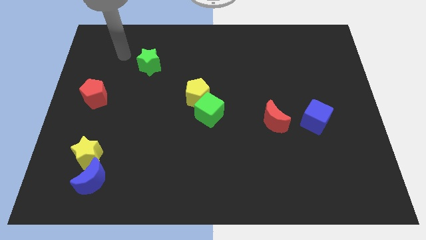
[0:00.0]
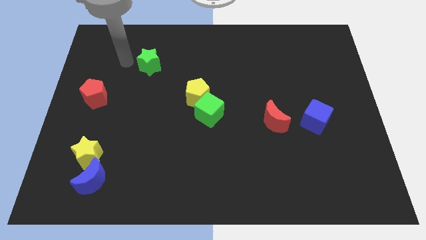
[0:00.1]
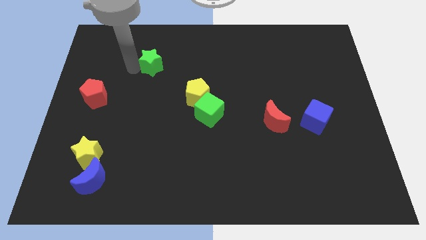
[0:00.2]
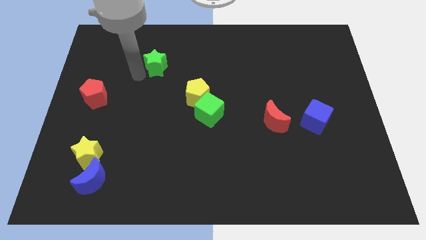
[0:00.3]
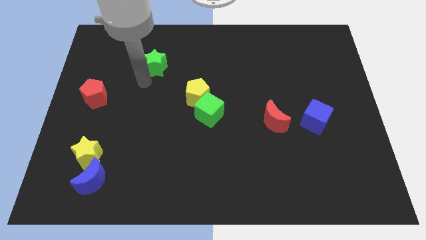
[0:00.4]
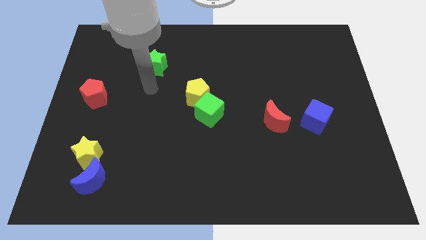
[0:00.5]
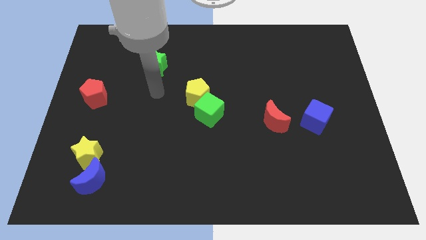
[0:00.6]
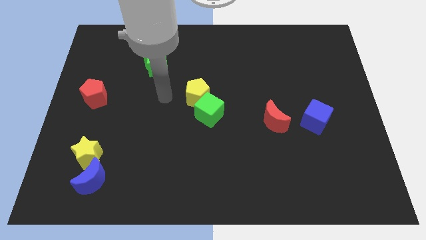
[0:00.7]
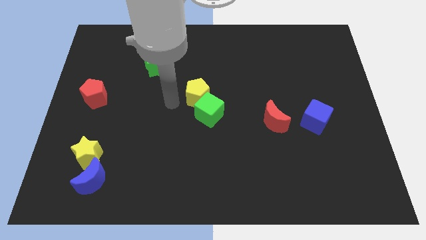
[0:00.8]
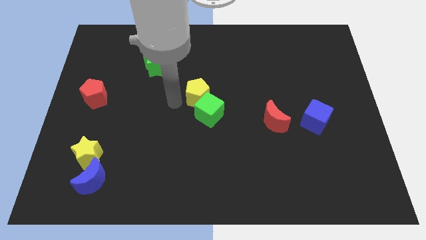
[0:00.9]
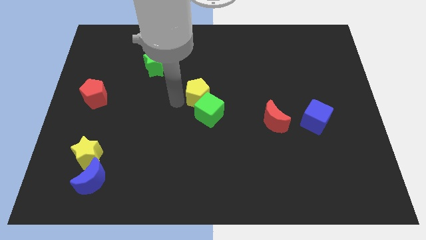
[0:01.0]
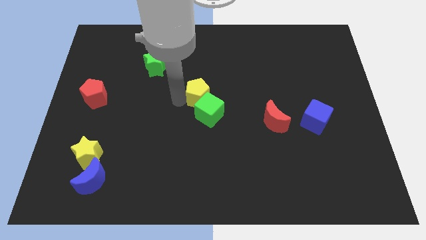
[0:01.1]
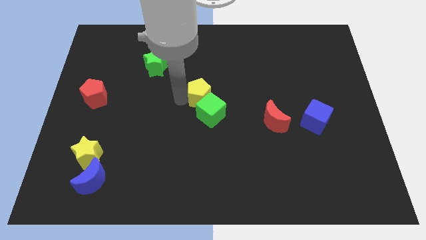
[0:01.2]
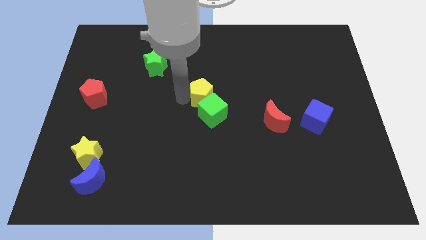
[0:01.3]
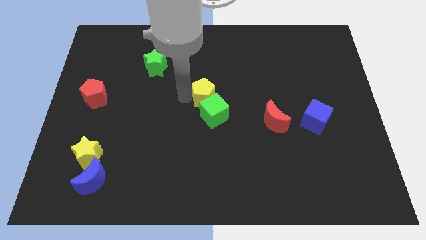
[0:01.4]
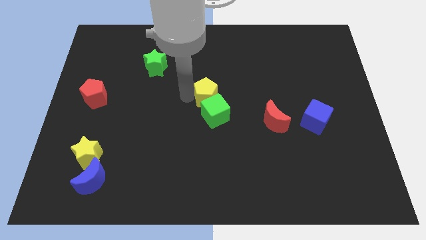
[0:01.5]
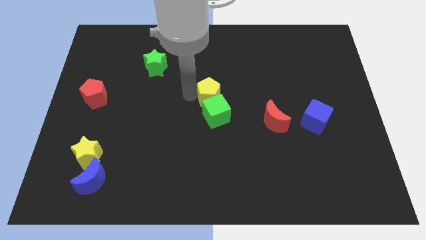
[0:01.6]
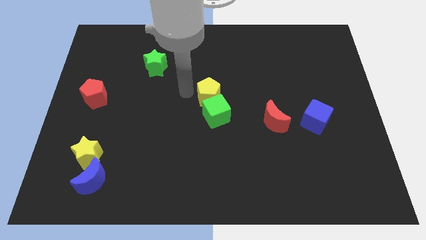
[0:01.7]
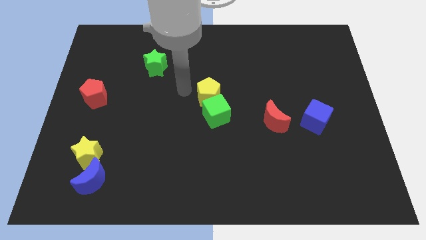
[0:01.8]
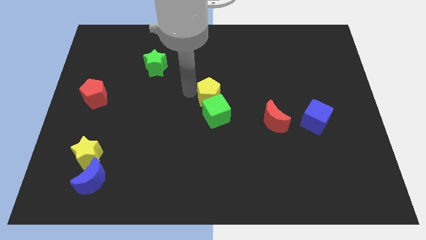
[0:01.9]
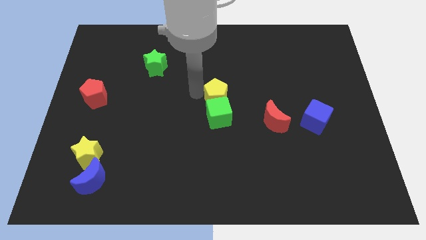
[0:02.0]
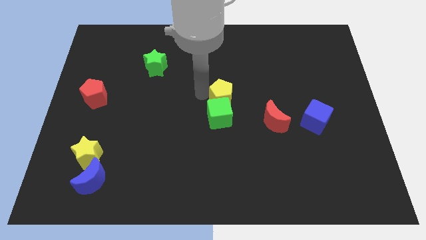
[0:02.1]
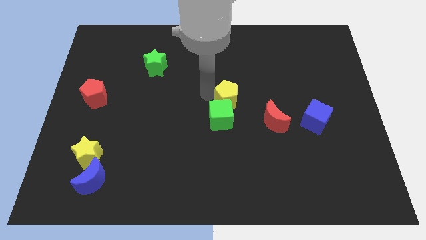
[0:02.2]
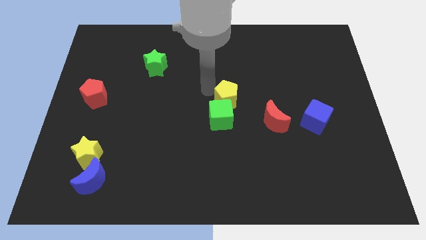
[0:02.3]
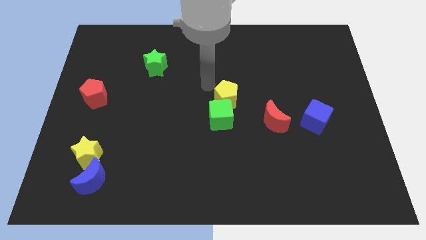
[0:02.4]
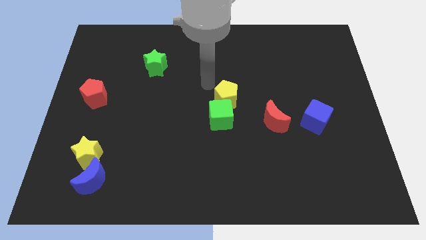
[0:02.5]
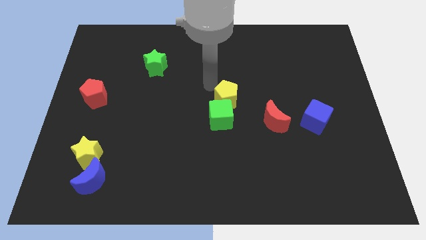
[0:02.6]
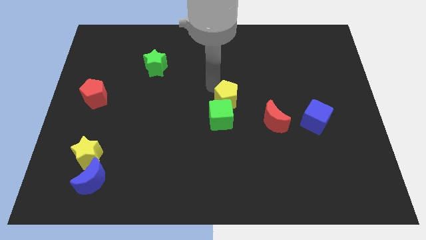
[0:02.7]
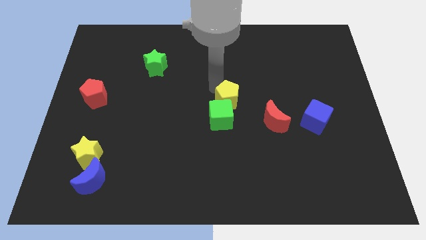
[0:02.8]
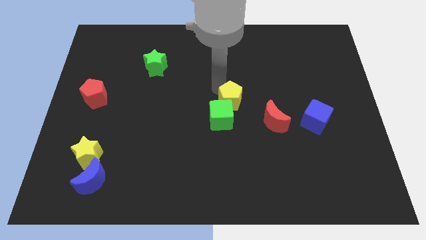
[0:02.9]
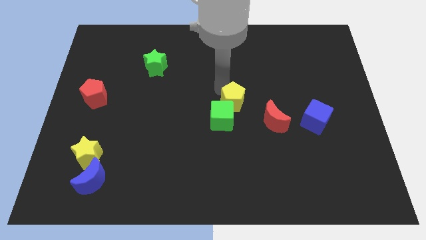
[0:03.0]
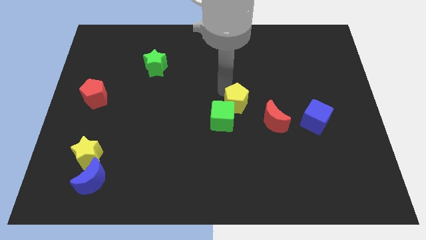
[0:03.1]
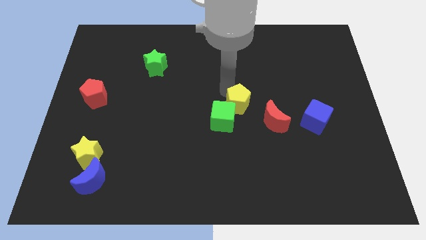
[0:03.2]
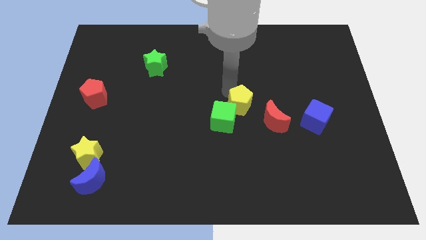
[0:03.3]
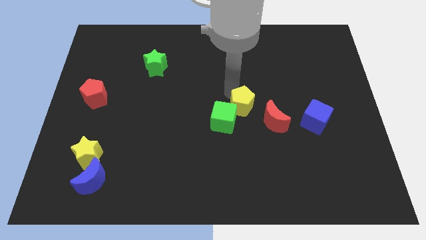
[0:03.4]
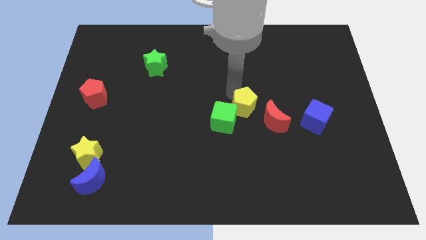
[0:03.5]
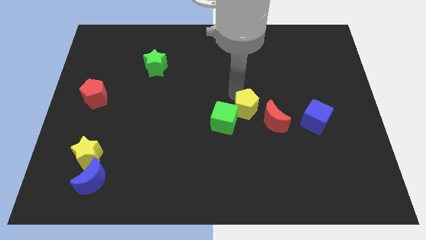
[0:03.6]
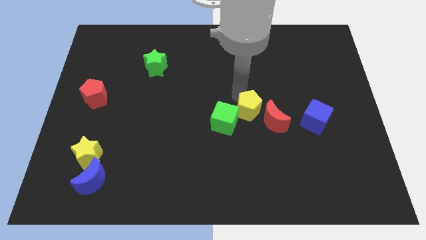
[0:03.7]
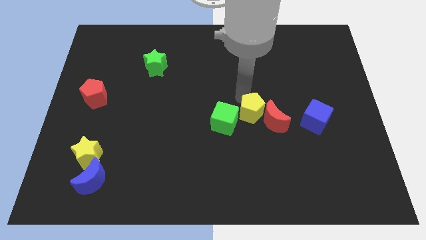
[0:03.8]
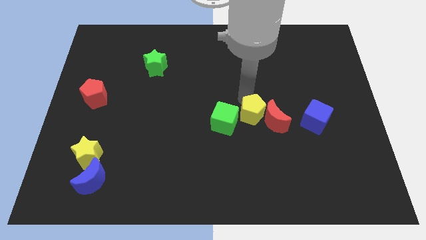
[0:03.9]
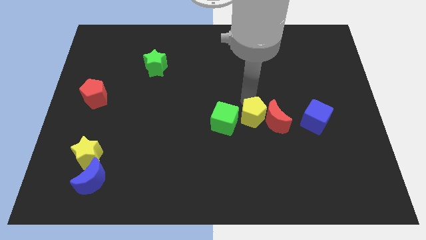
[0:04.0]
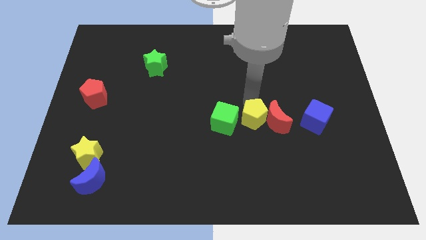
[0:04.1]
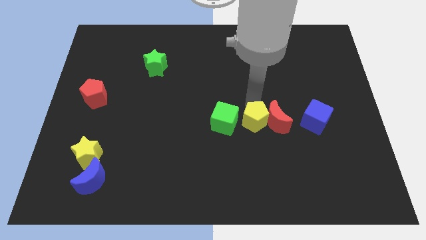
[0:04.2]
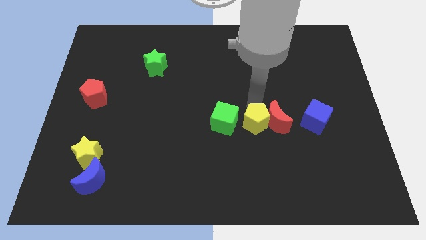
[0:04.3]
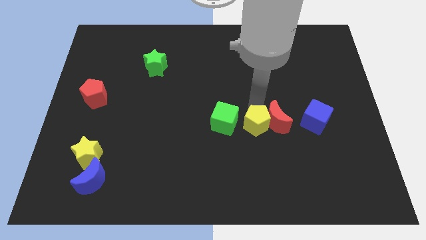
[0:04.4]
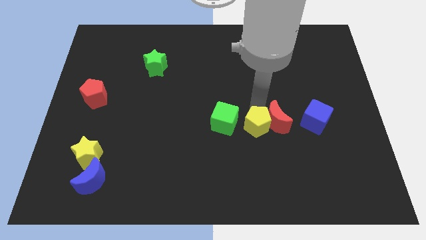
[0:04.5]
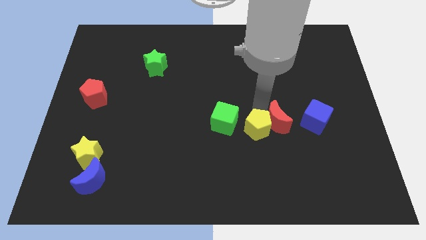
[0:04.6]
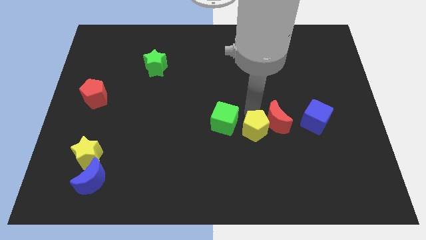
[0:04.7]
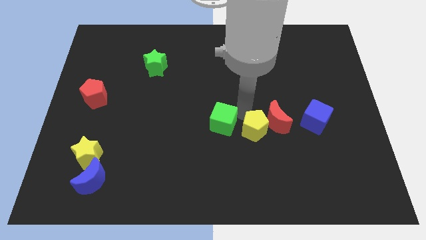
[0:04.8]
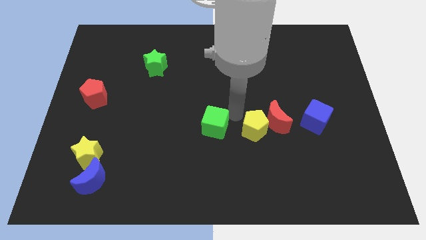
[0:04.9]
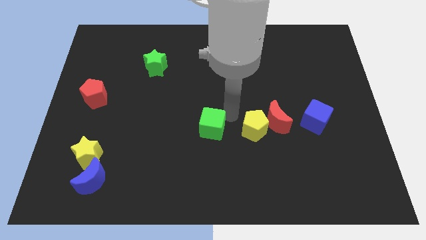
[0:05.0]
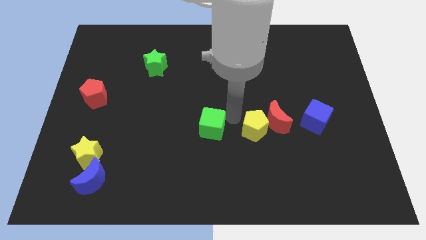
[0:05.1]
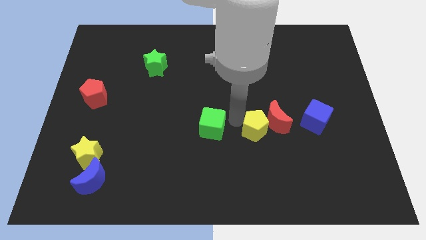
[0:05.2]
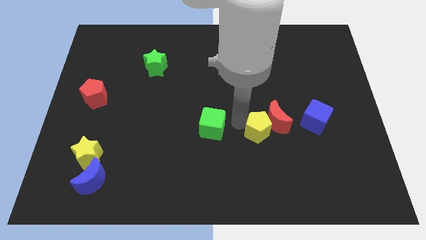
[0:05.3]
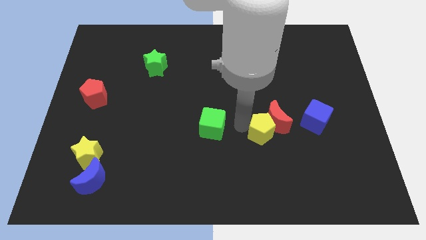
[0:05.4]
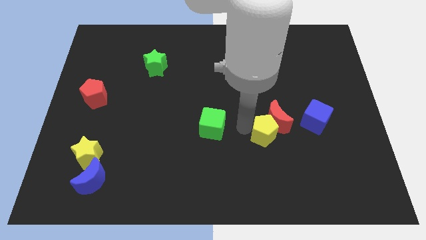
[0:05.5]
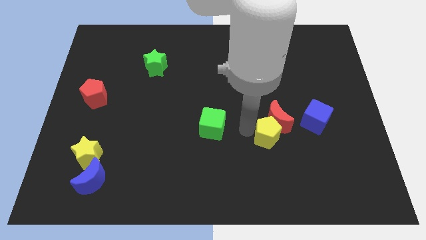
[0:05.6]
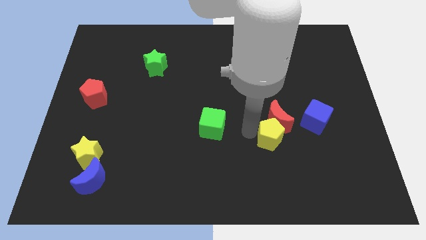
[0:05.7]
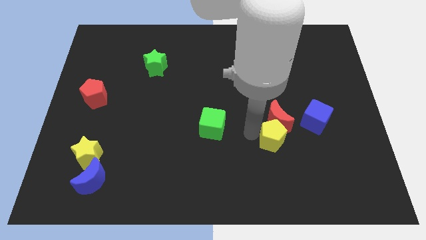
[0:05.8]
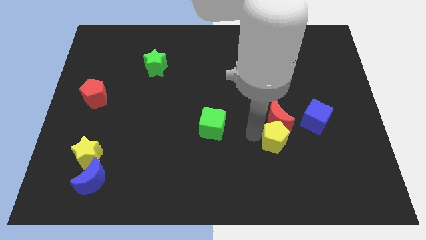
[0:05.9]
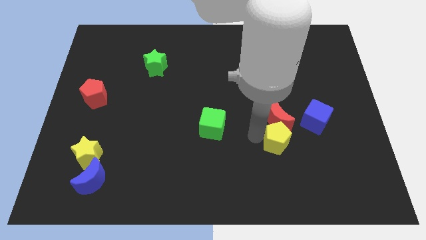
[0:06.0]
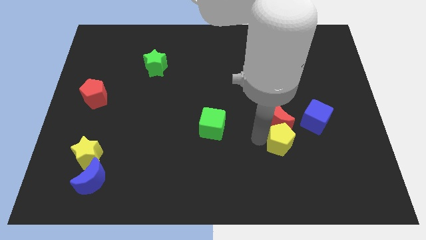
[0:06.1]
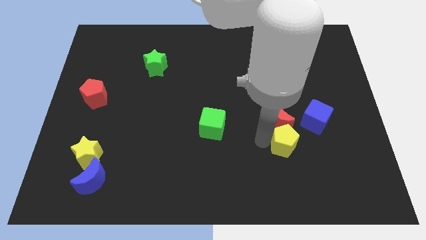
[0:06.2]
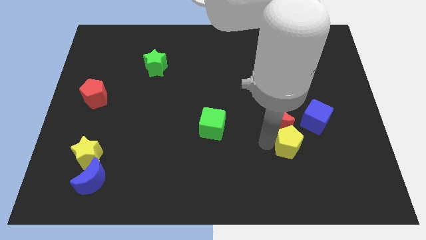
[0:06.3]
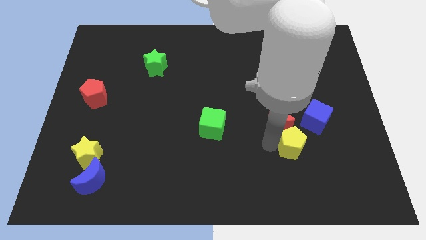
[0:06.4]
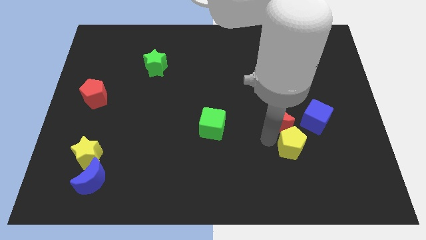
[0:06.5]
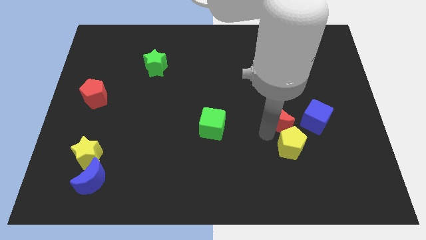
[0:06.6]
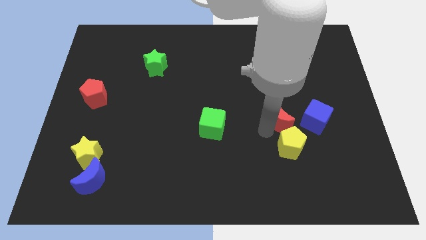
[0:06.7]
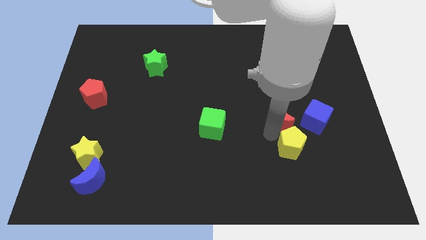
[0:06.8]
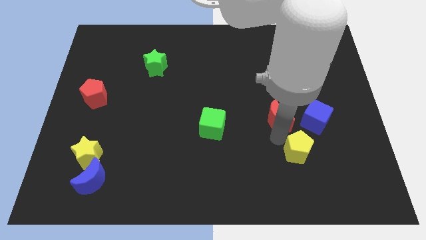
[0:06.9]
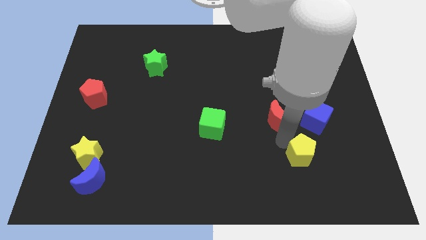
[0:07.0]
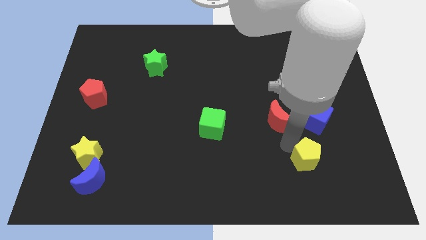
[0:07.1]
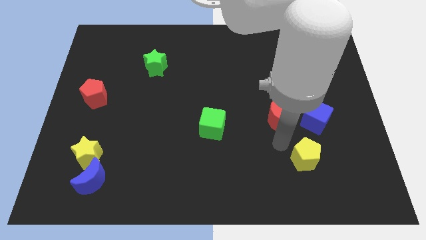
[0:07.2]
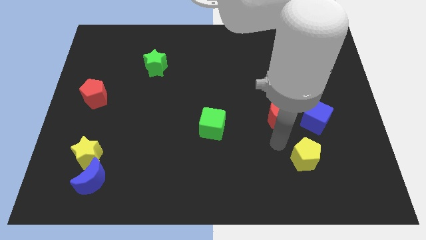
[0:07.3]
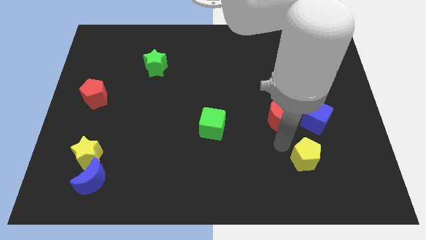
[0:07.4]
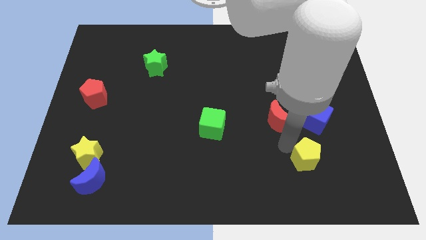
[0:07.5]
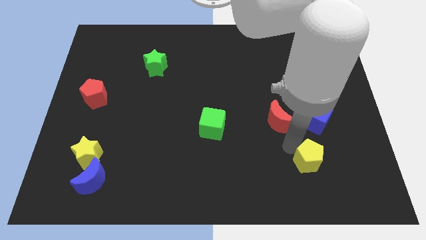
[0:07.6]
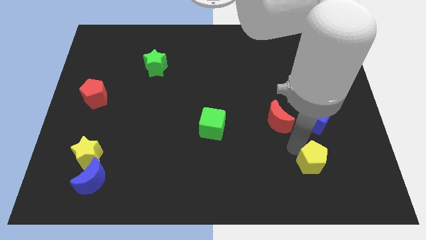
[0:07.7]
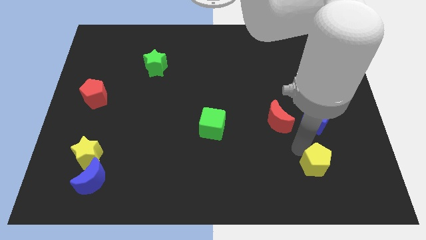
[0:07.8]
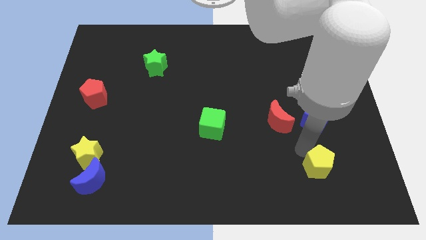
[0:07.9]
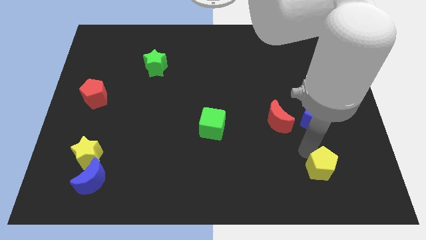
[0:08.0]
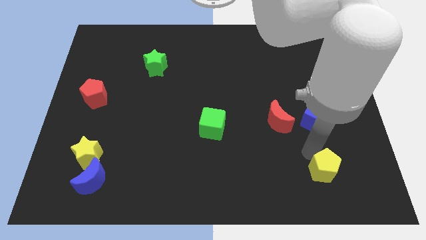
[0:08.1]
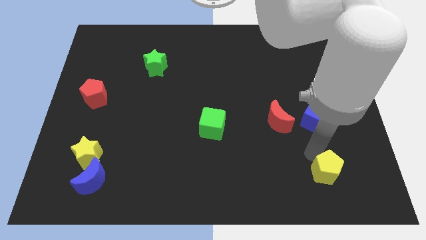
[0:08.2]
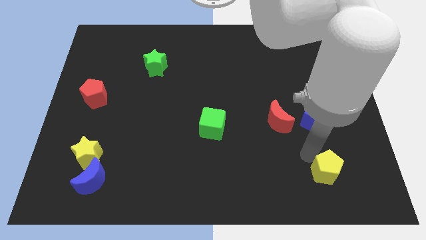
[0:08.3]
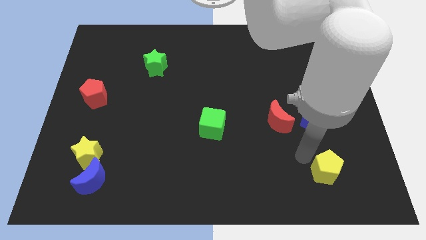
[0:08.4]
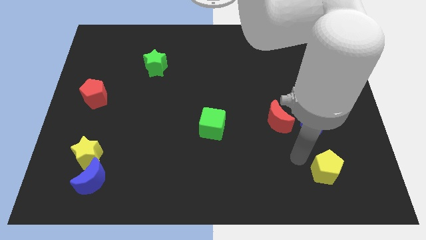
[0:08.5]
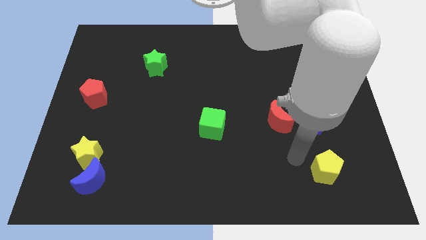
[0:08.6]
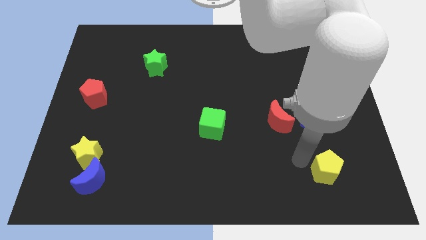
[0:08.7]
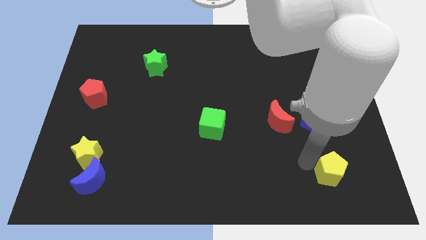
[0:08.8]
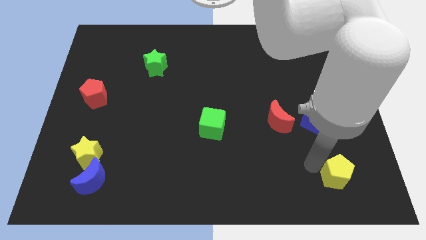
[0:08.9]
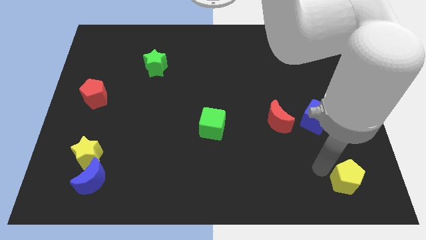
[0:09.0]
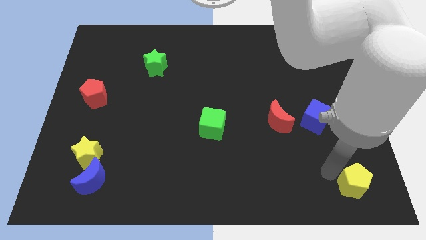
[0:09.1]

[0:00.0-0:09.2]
push the yellow pentagon to the bottom right corner
